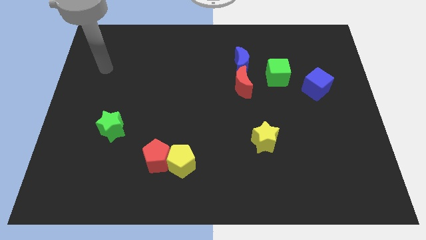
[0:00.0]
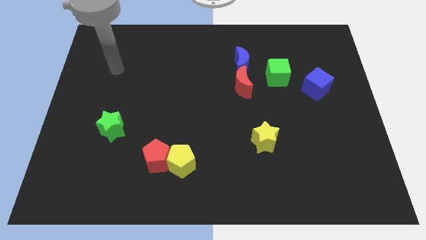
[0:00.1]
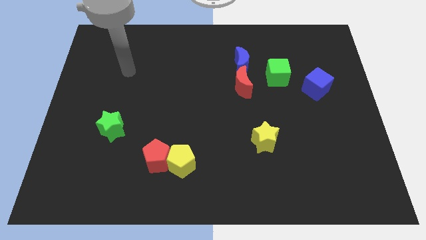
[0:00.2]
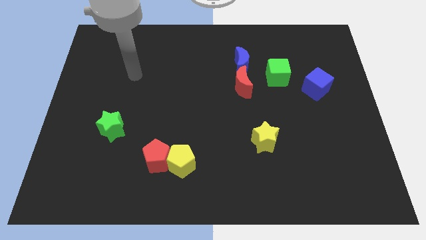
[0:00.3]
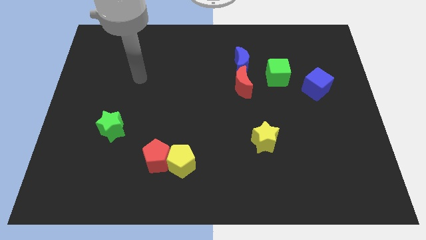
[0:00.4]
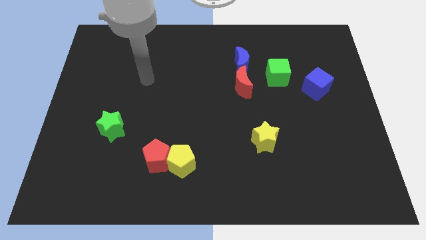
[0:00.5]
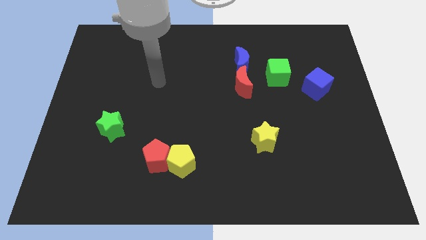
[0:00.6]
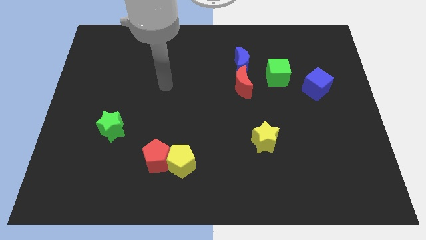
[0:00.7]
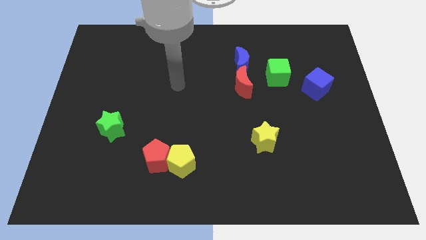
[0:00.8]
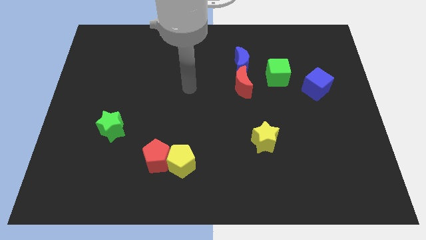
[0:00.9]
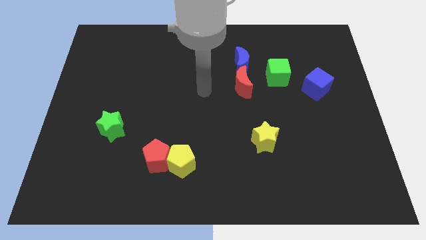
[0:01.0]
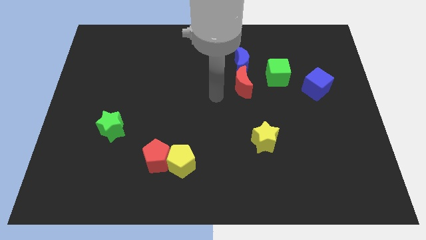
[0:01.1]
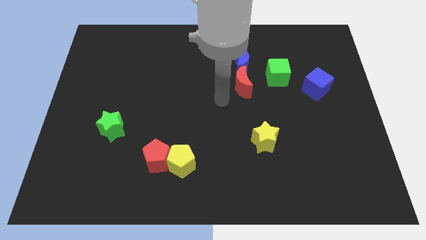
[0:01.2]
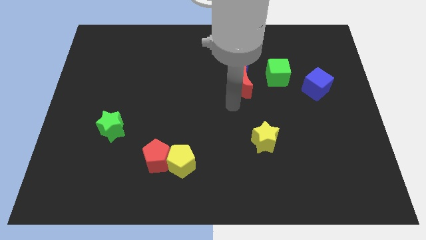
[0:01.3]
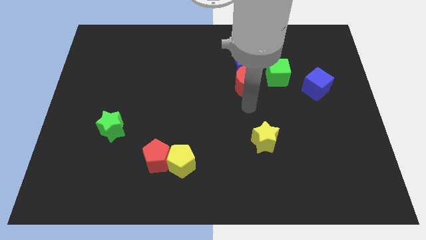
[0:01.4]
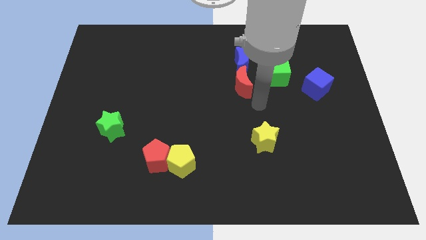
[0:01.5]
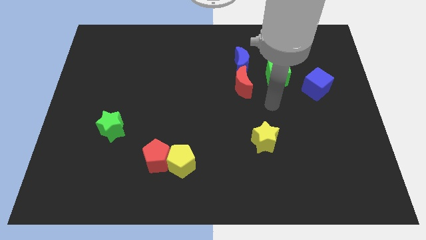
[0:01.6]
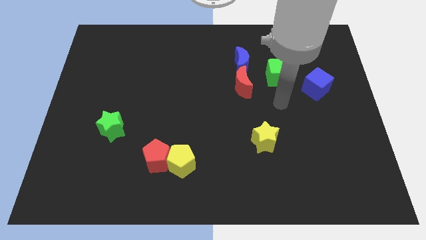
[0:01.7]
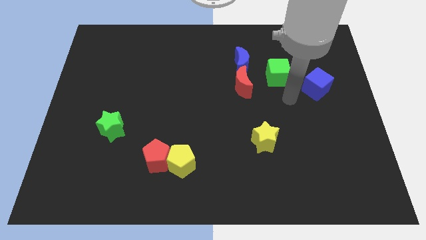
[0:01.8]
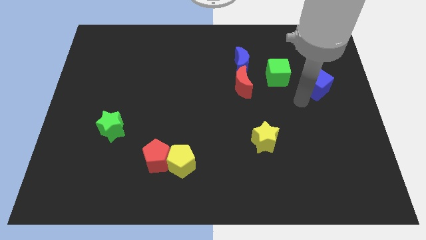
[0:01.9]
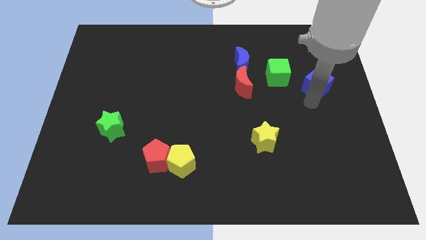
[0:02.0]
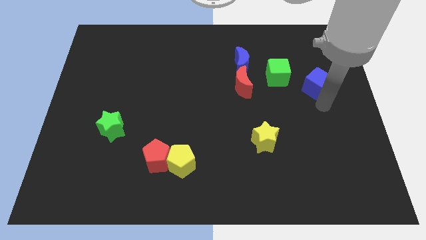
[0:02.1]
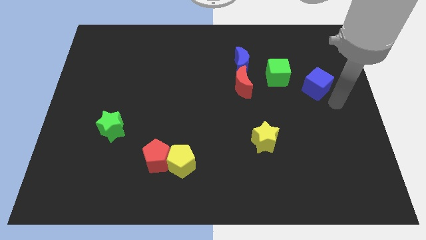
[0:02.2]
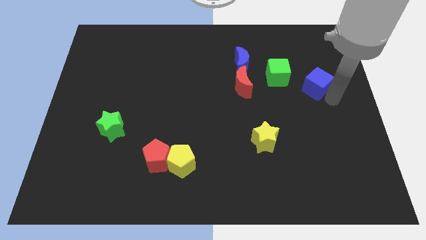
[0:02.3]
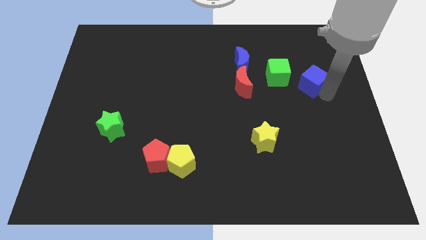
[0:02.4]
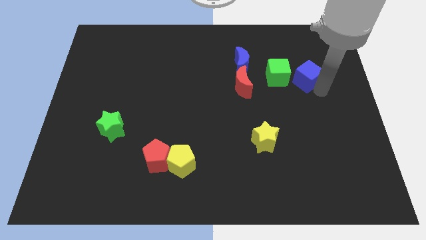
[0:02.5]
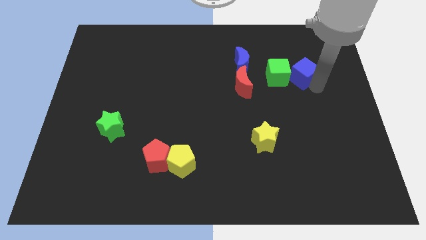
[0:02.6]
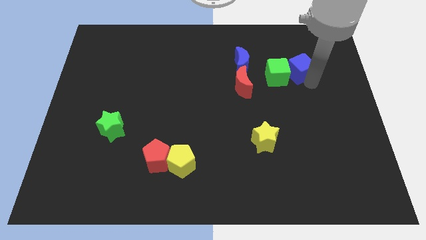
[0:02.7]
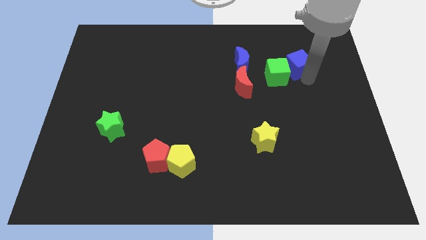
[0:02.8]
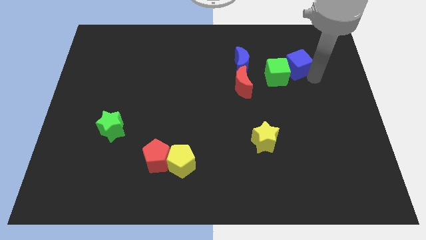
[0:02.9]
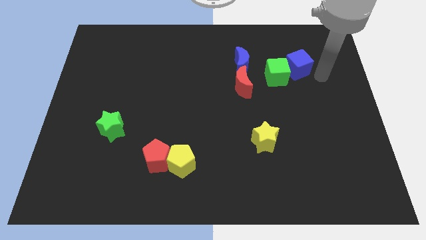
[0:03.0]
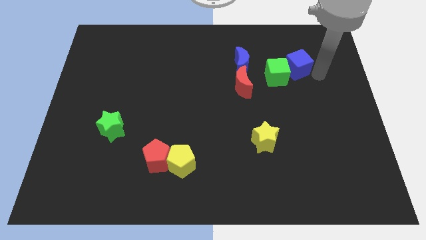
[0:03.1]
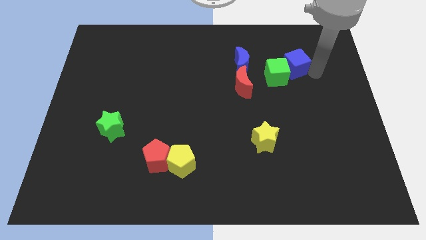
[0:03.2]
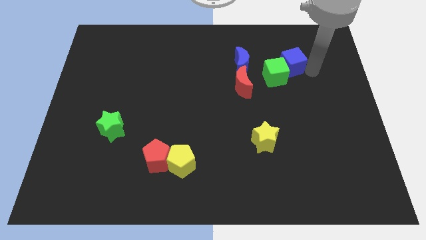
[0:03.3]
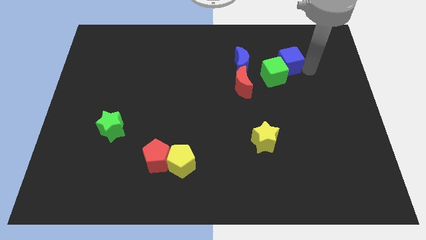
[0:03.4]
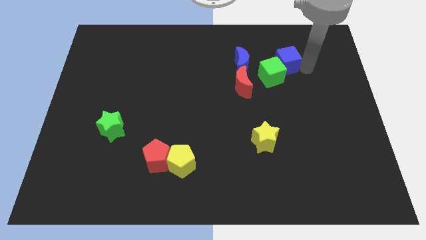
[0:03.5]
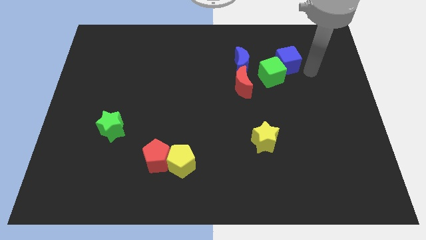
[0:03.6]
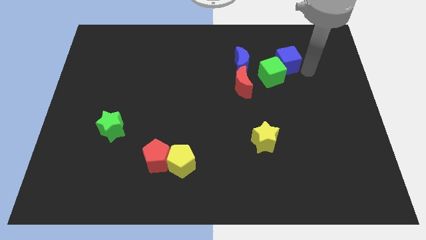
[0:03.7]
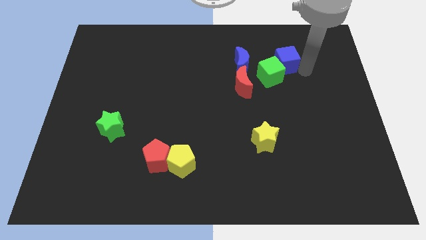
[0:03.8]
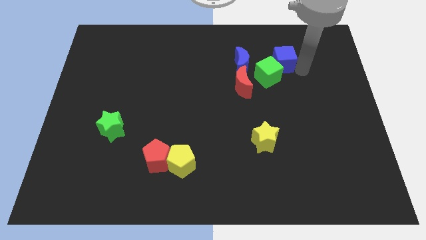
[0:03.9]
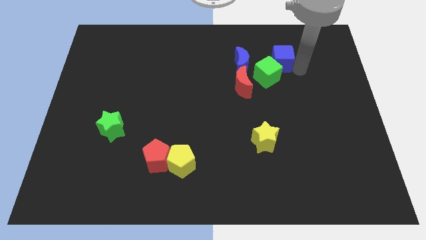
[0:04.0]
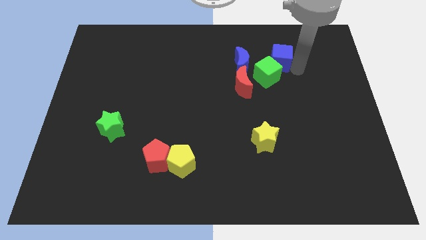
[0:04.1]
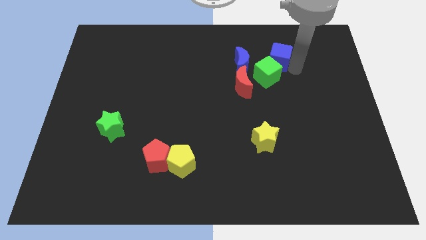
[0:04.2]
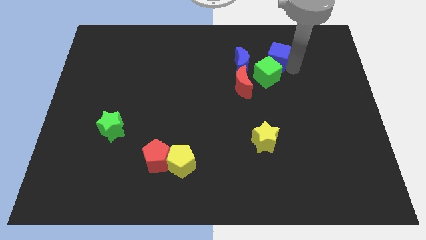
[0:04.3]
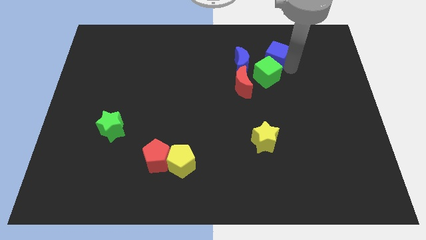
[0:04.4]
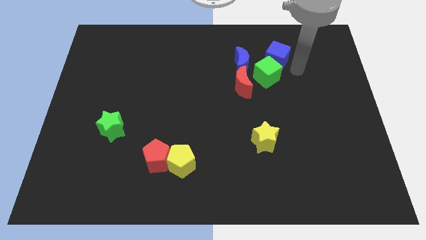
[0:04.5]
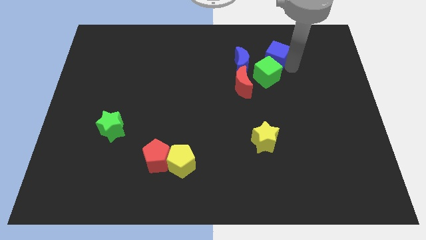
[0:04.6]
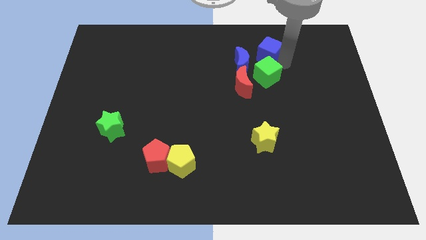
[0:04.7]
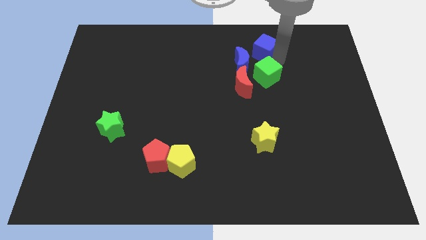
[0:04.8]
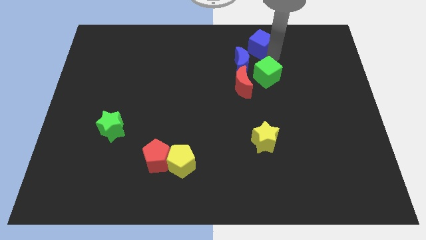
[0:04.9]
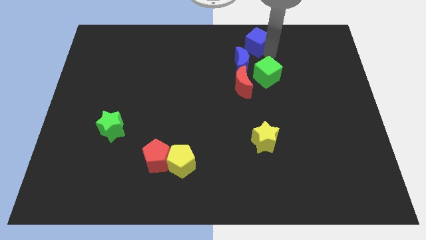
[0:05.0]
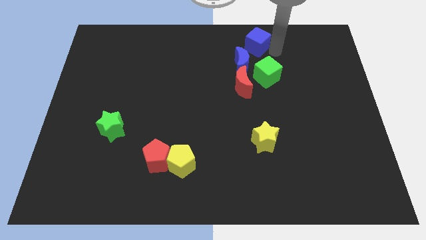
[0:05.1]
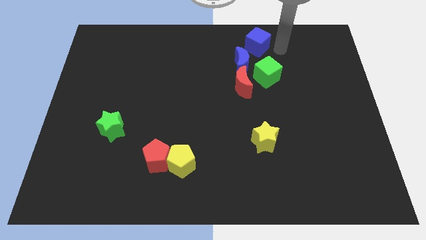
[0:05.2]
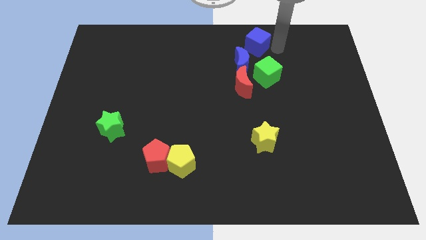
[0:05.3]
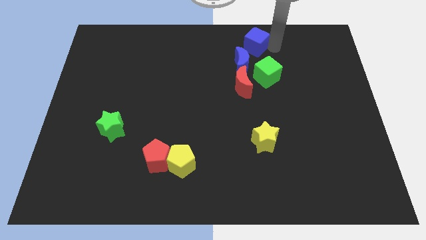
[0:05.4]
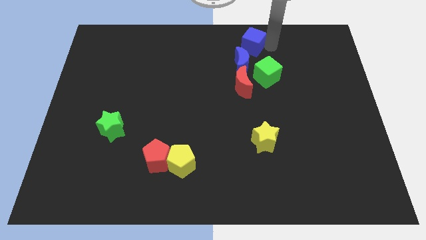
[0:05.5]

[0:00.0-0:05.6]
push the blue cube to the top side
